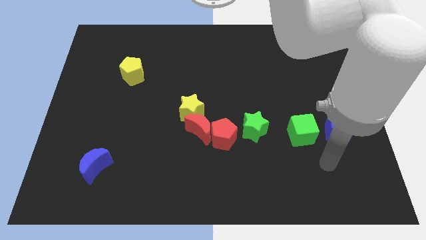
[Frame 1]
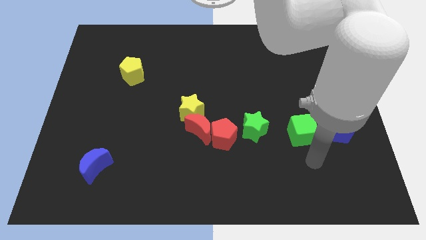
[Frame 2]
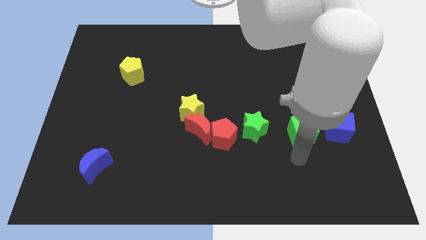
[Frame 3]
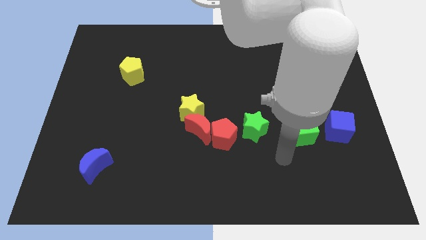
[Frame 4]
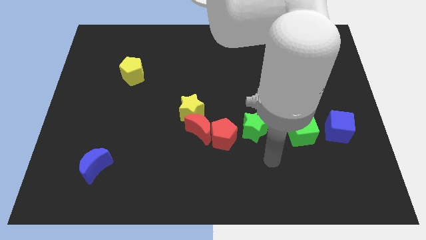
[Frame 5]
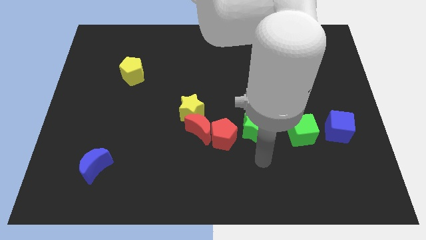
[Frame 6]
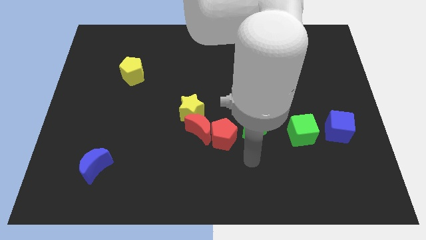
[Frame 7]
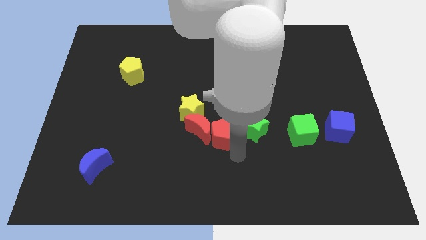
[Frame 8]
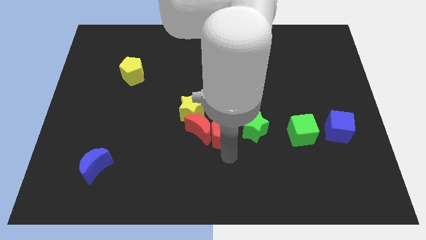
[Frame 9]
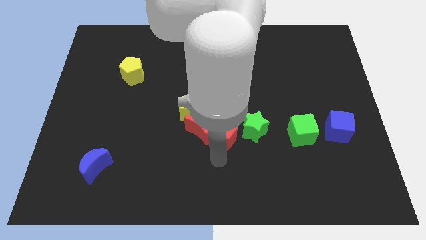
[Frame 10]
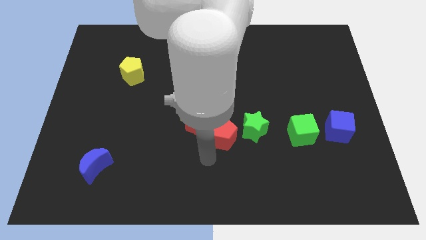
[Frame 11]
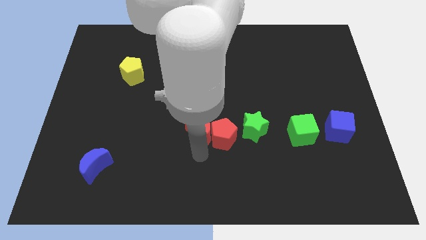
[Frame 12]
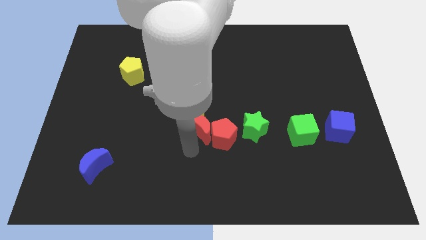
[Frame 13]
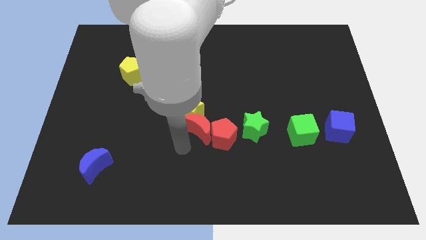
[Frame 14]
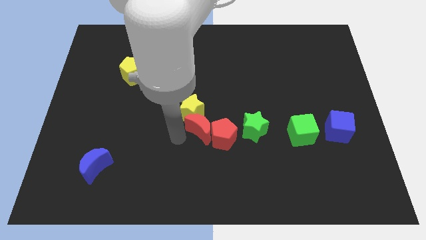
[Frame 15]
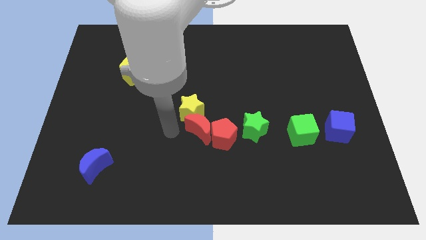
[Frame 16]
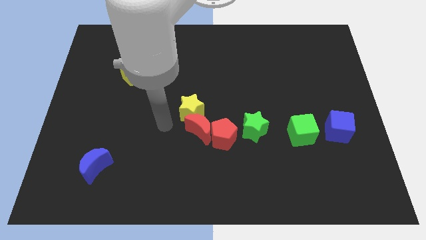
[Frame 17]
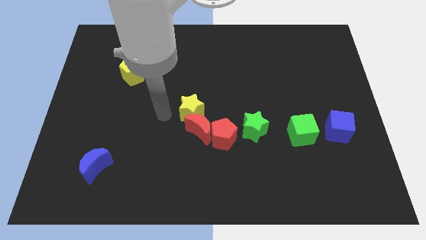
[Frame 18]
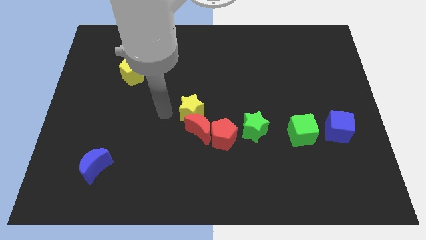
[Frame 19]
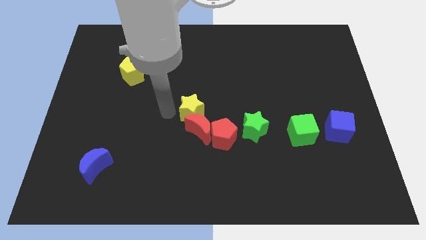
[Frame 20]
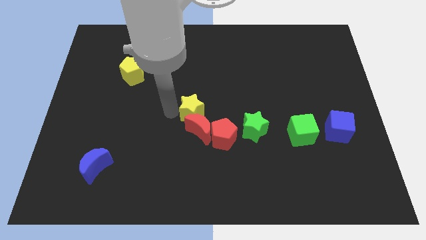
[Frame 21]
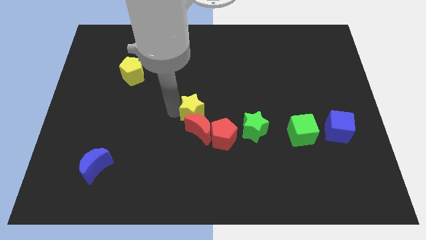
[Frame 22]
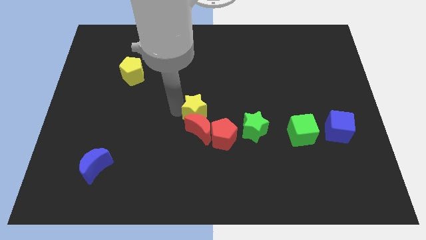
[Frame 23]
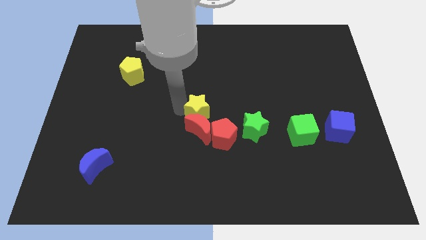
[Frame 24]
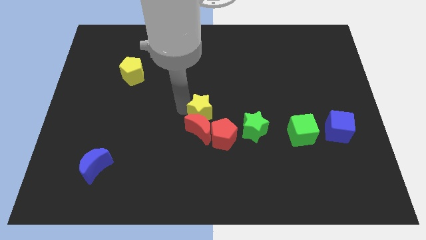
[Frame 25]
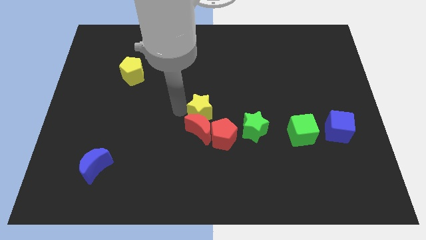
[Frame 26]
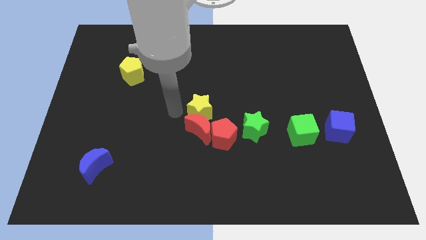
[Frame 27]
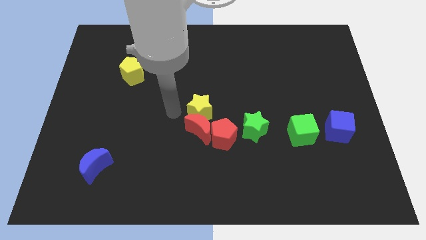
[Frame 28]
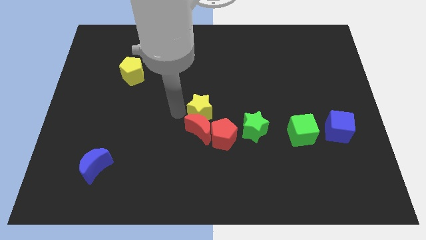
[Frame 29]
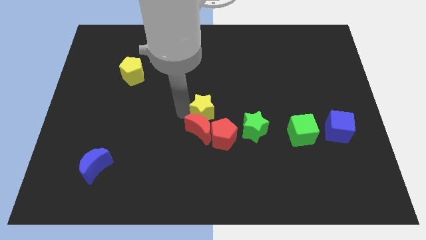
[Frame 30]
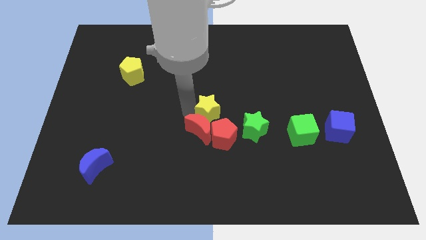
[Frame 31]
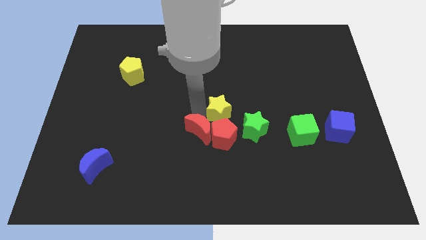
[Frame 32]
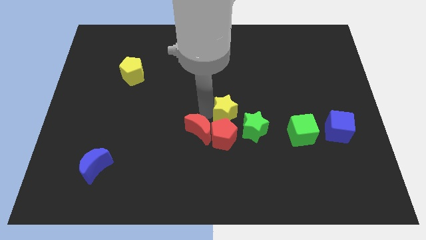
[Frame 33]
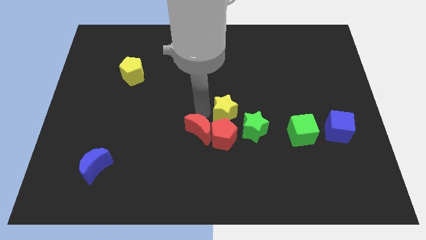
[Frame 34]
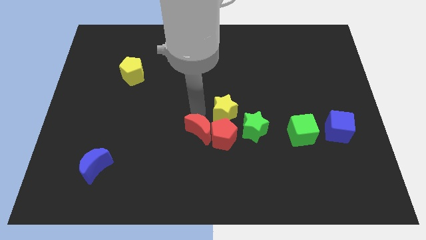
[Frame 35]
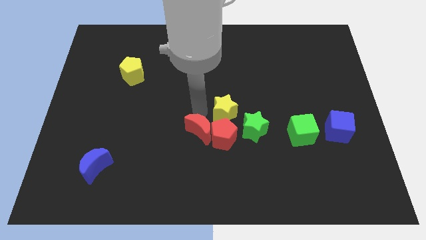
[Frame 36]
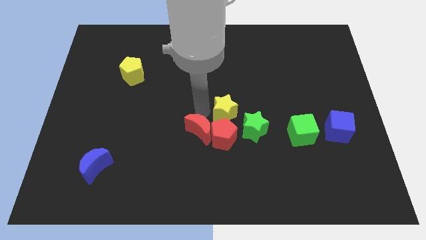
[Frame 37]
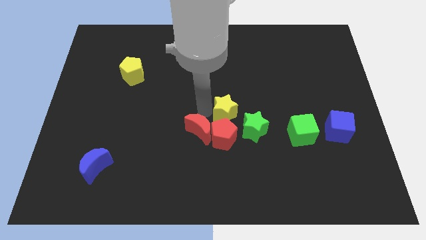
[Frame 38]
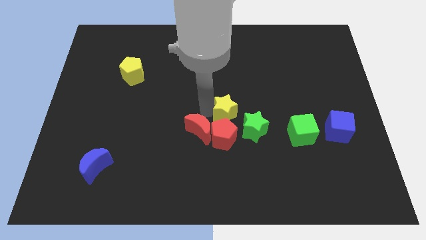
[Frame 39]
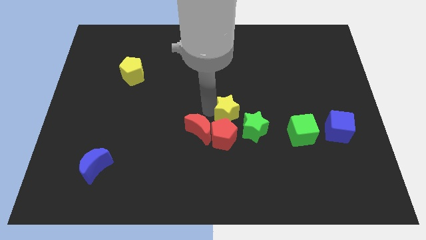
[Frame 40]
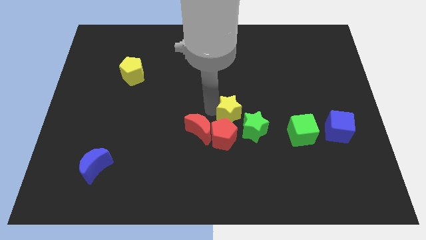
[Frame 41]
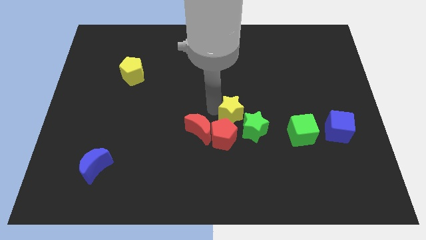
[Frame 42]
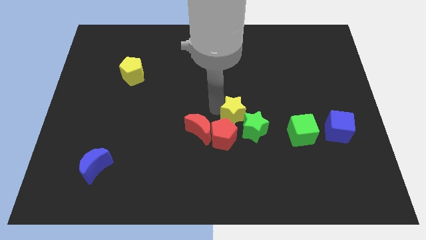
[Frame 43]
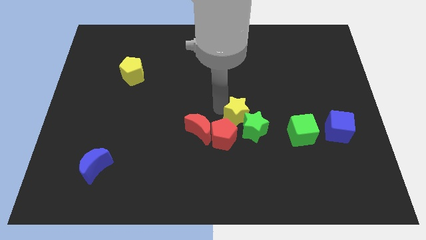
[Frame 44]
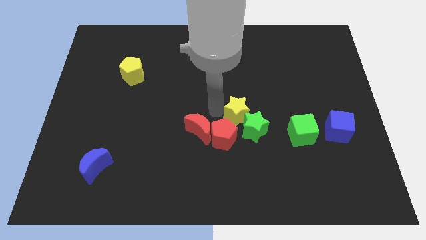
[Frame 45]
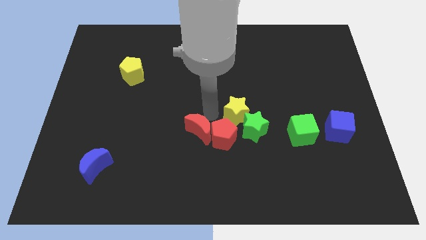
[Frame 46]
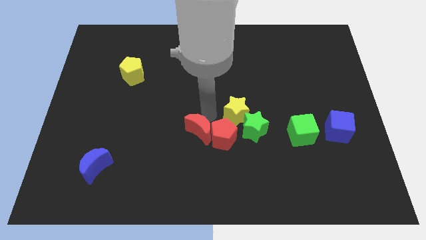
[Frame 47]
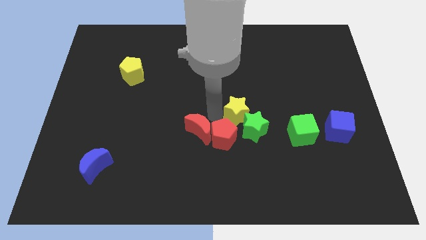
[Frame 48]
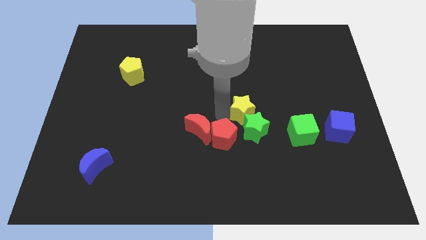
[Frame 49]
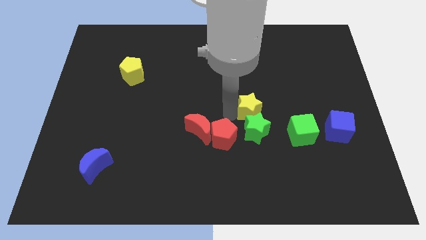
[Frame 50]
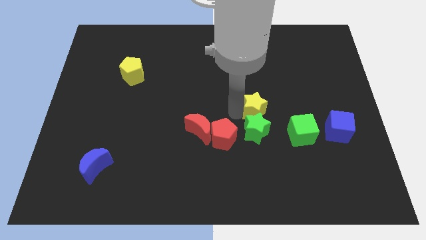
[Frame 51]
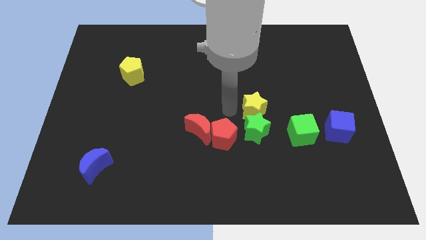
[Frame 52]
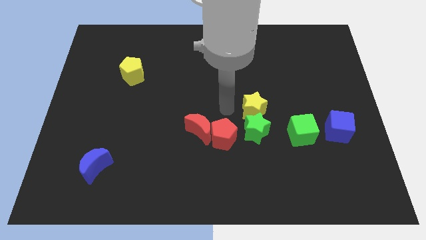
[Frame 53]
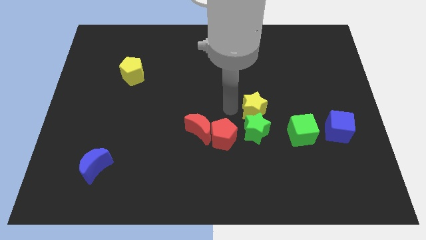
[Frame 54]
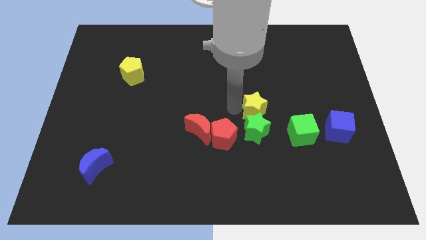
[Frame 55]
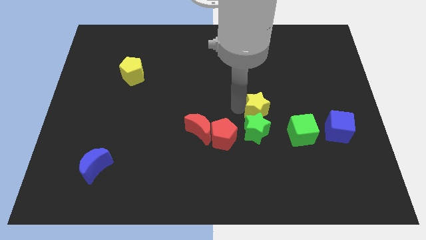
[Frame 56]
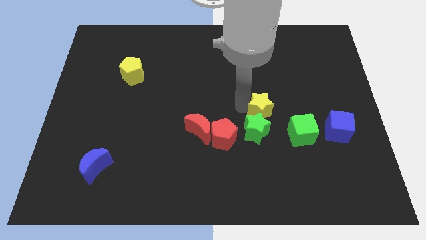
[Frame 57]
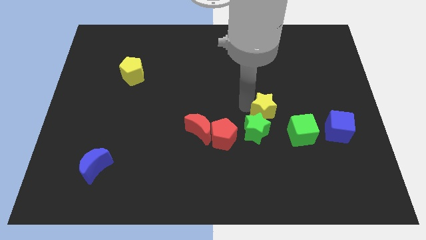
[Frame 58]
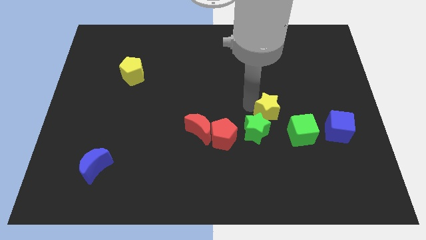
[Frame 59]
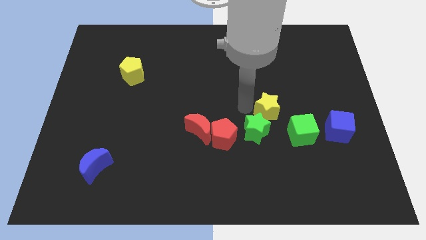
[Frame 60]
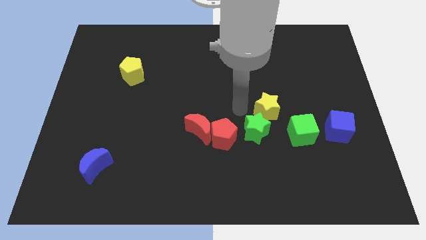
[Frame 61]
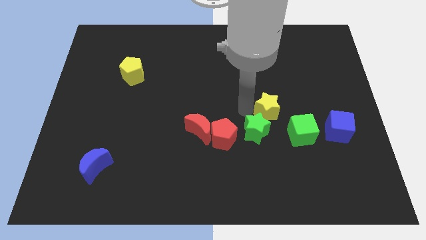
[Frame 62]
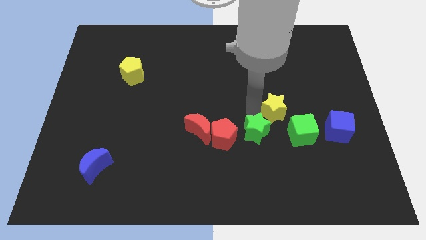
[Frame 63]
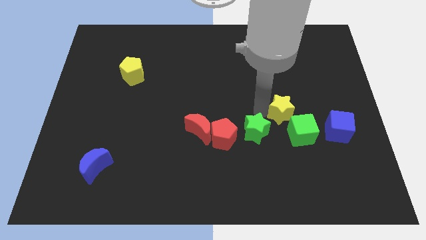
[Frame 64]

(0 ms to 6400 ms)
push the yellow star to the right

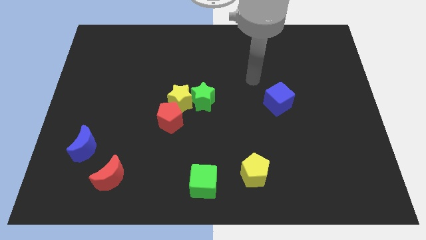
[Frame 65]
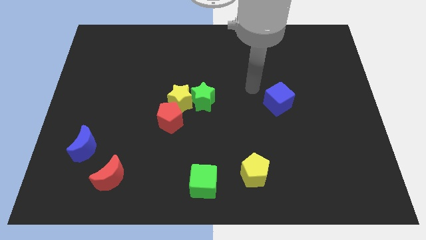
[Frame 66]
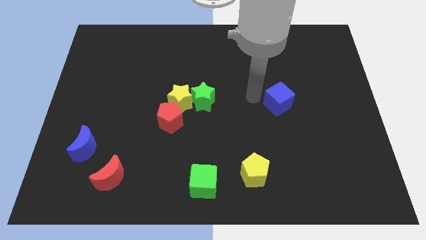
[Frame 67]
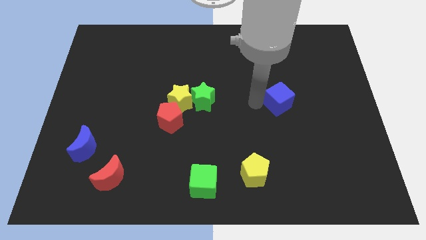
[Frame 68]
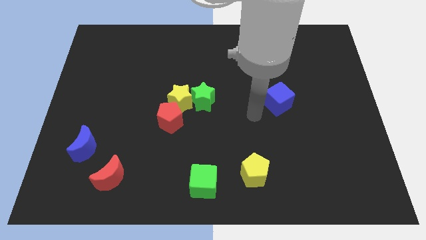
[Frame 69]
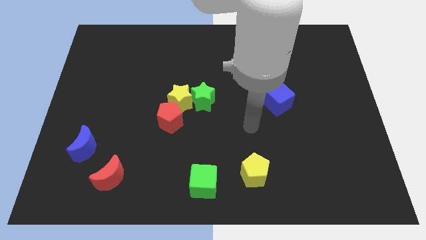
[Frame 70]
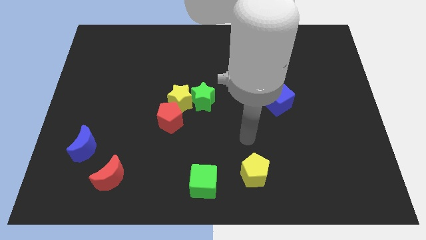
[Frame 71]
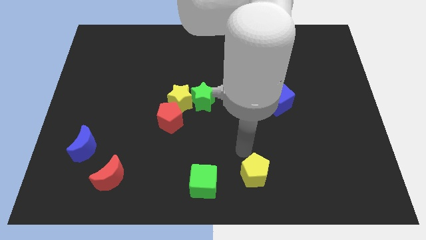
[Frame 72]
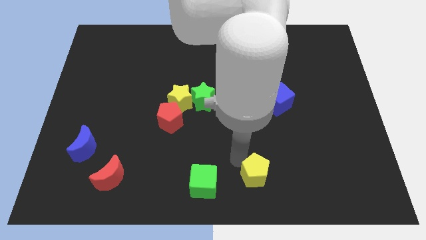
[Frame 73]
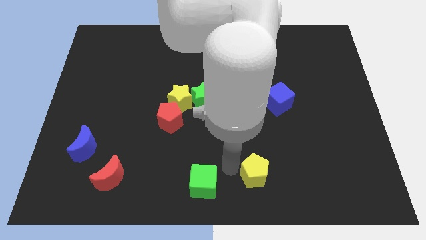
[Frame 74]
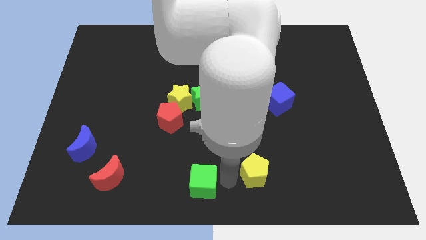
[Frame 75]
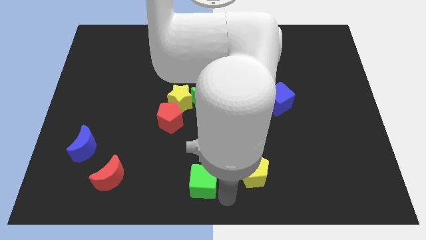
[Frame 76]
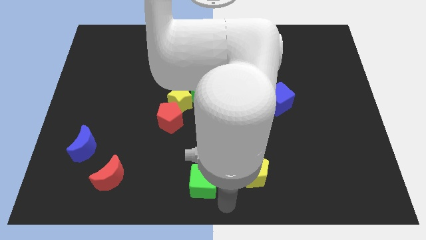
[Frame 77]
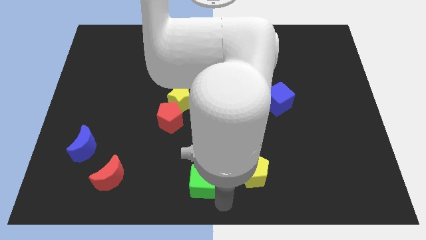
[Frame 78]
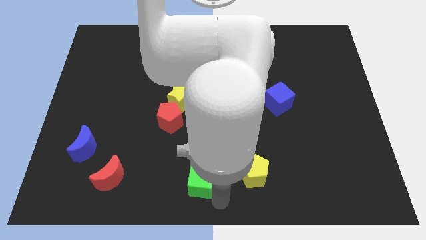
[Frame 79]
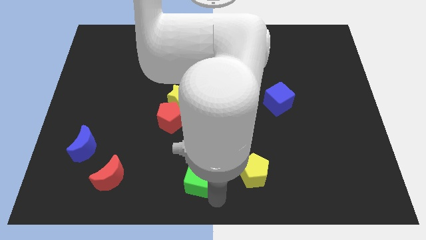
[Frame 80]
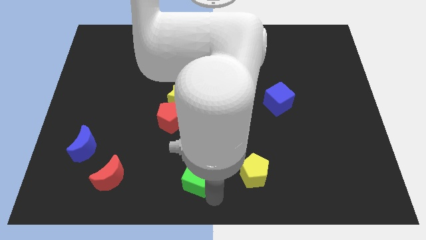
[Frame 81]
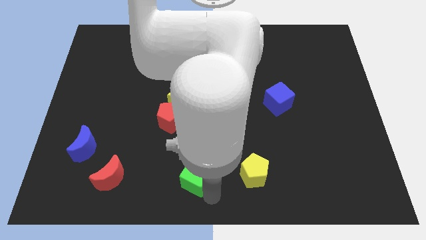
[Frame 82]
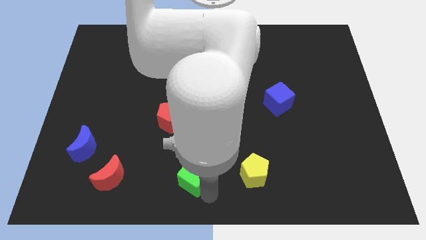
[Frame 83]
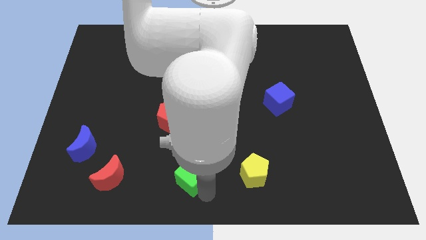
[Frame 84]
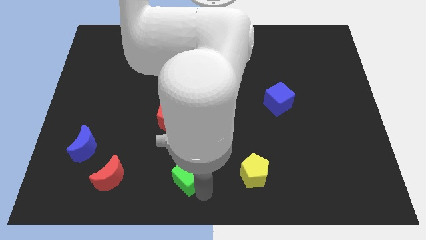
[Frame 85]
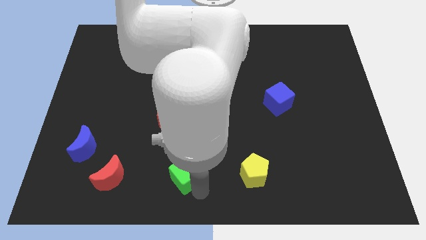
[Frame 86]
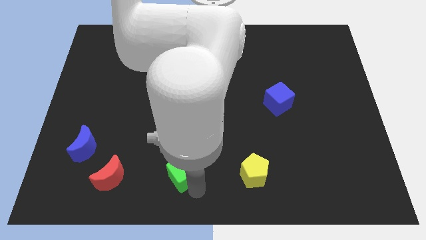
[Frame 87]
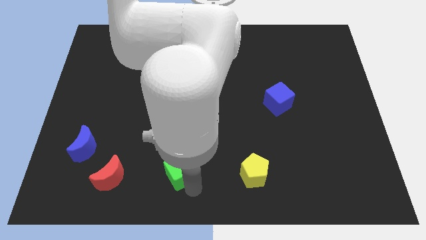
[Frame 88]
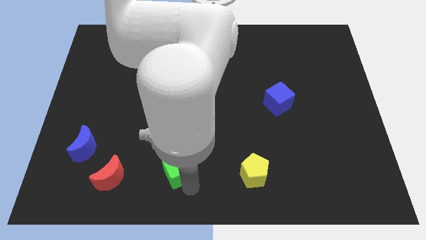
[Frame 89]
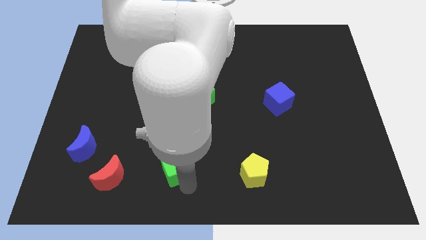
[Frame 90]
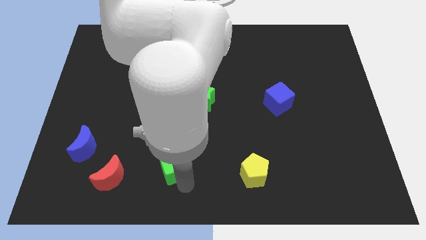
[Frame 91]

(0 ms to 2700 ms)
slightly slide the green cube diagonally up and left
